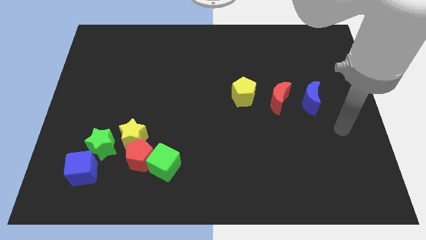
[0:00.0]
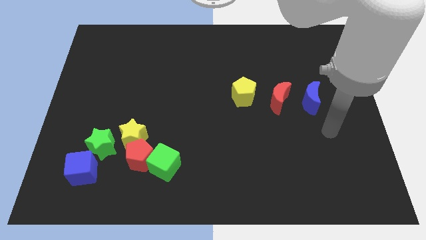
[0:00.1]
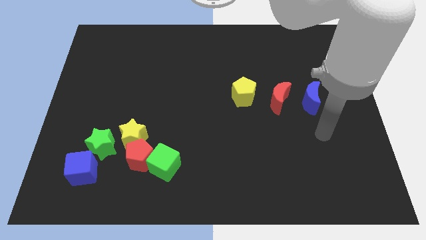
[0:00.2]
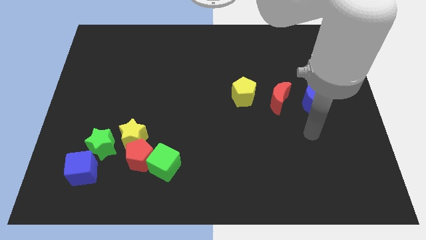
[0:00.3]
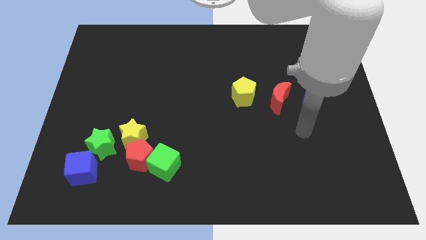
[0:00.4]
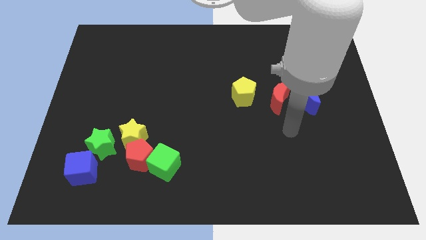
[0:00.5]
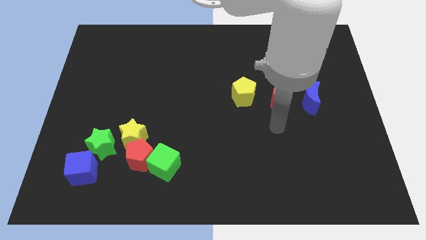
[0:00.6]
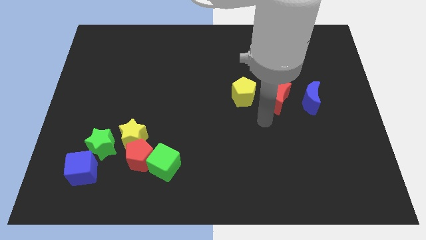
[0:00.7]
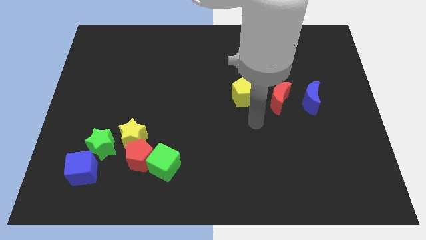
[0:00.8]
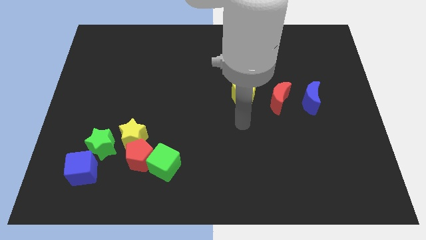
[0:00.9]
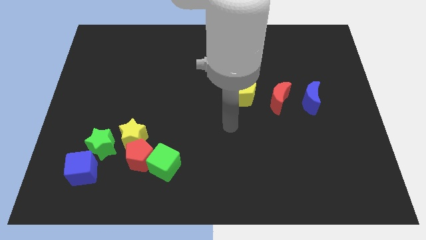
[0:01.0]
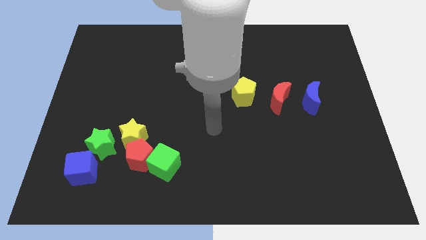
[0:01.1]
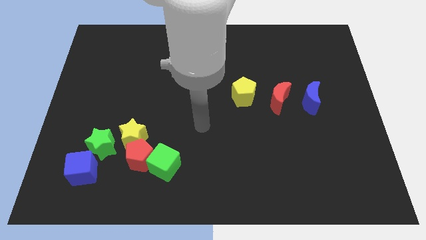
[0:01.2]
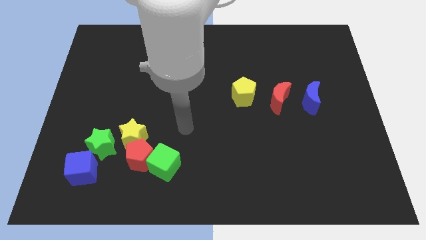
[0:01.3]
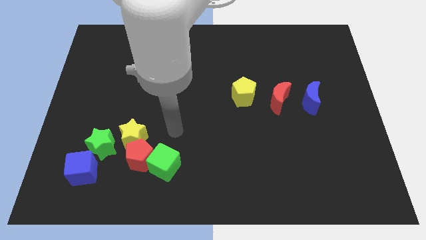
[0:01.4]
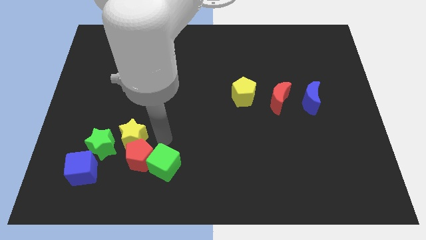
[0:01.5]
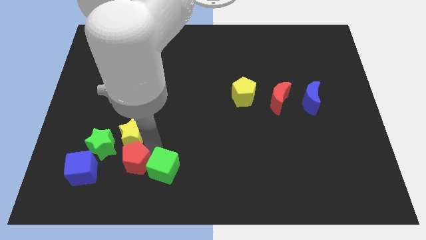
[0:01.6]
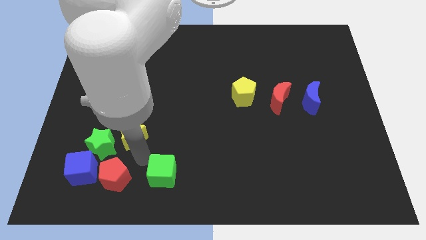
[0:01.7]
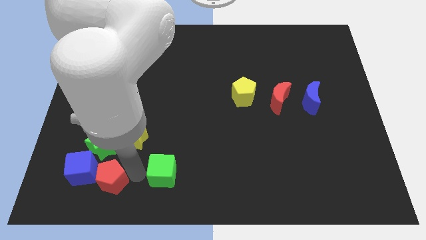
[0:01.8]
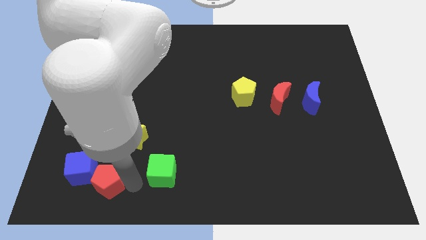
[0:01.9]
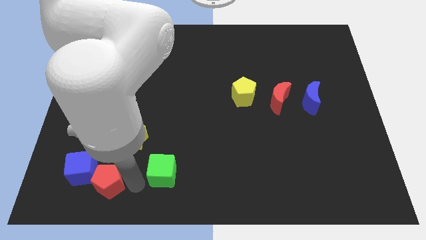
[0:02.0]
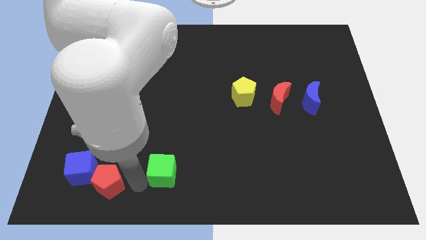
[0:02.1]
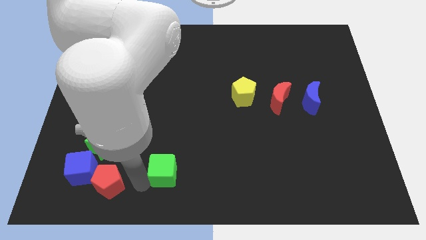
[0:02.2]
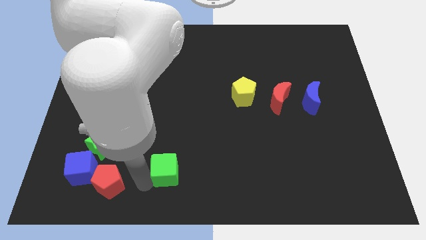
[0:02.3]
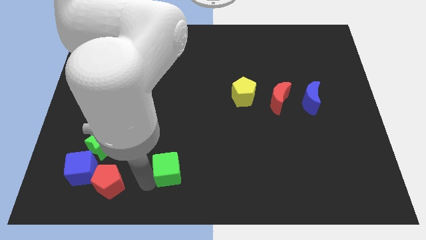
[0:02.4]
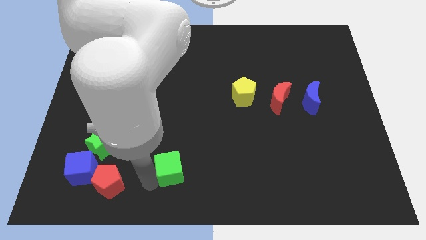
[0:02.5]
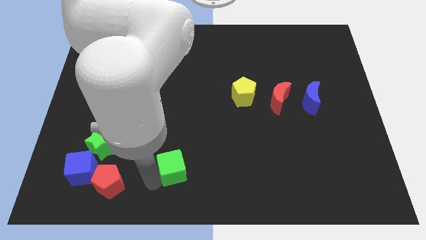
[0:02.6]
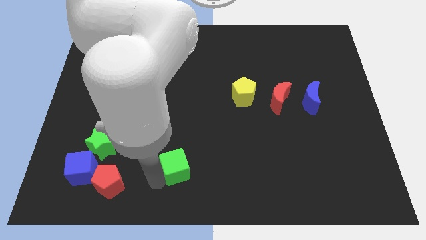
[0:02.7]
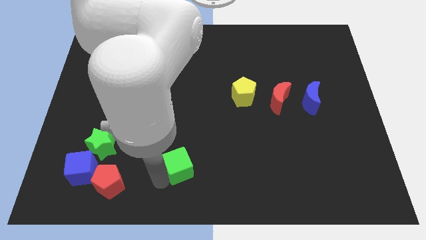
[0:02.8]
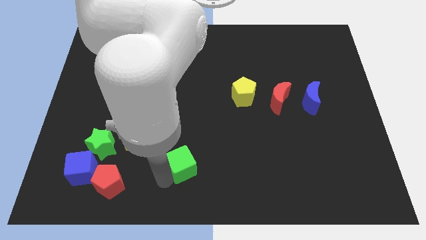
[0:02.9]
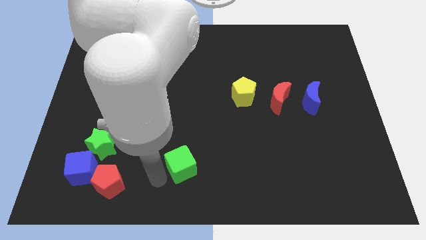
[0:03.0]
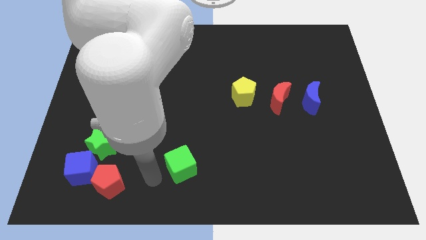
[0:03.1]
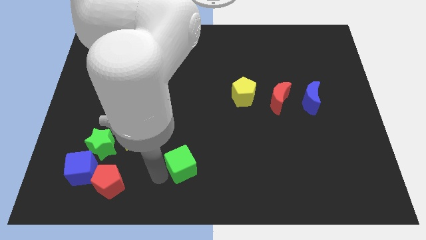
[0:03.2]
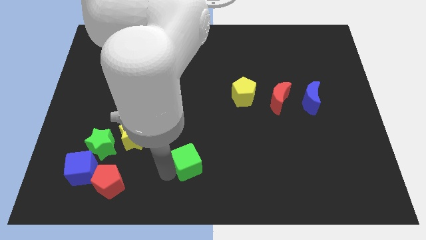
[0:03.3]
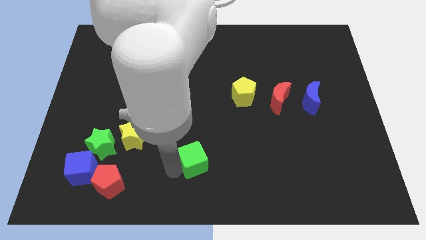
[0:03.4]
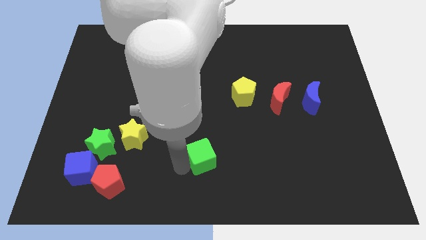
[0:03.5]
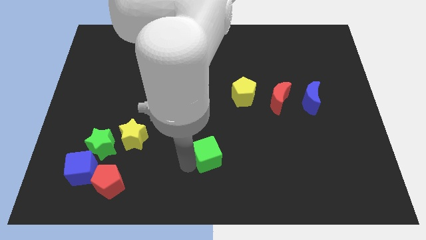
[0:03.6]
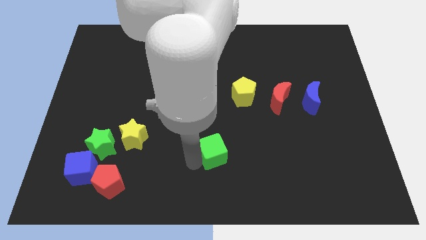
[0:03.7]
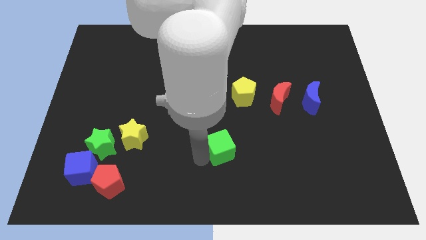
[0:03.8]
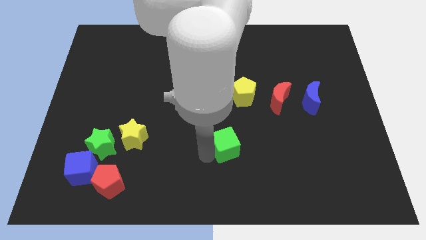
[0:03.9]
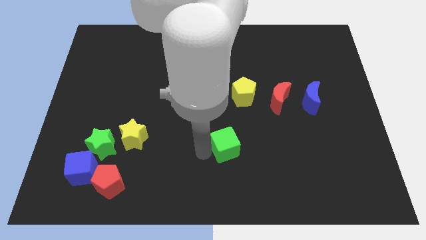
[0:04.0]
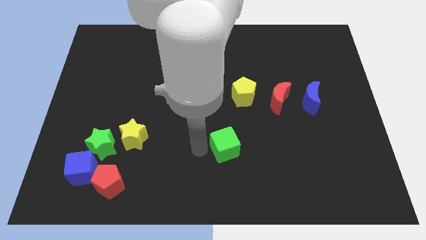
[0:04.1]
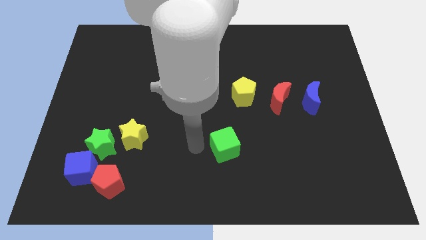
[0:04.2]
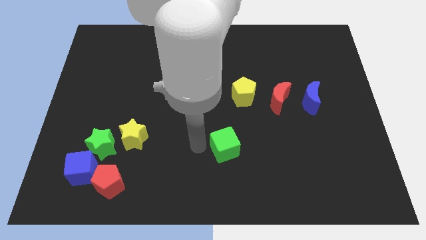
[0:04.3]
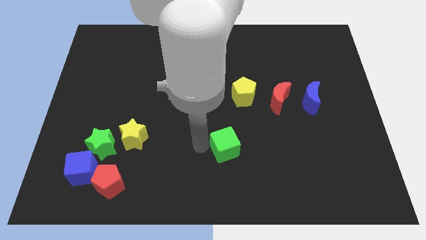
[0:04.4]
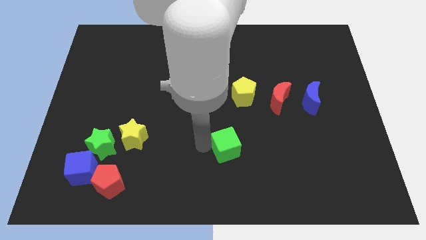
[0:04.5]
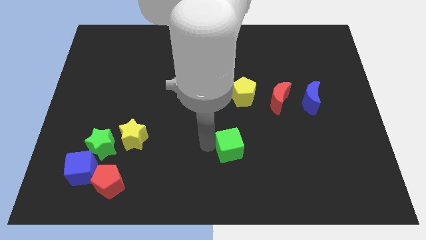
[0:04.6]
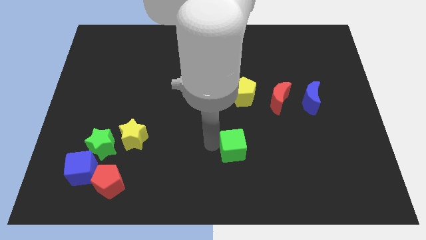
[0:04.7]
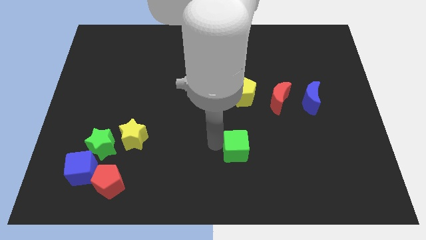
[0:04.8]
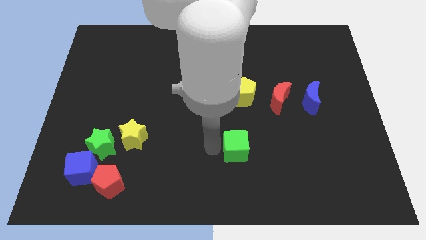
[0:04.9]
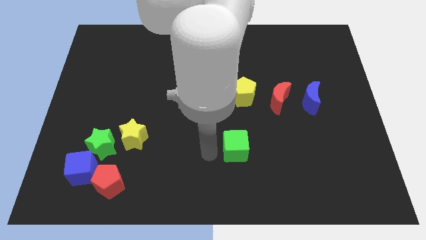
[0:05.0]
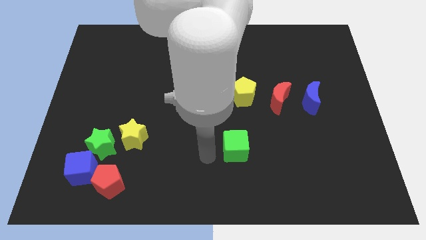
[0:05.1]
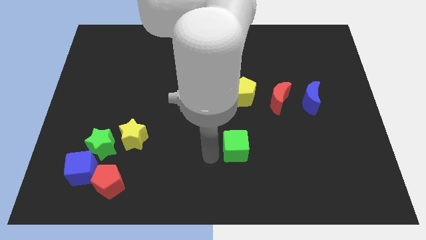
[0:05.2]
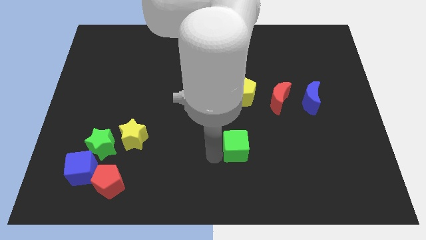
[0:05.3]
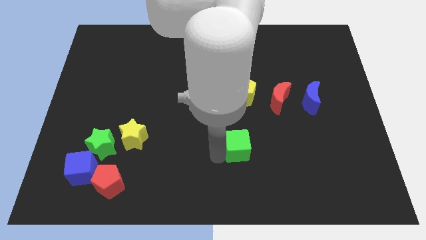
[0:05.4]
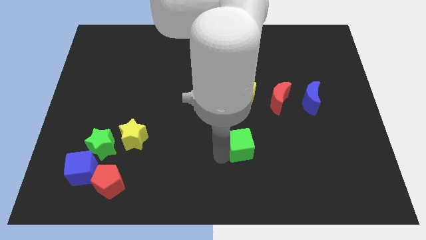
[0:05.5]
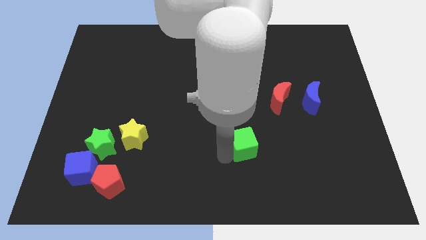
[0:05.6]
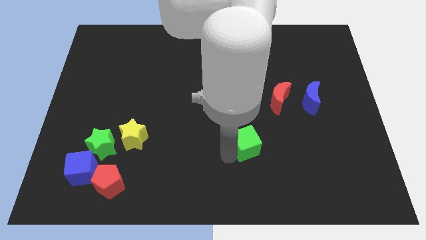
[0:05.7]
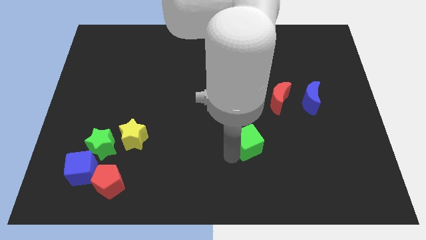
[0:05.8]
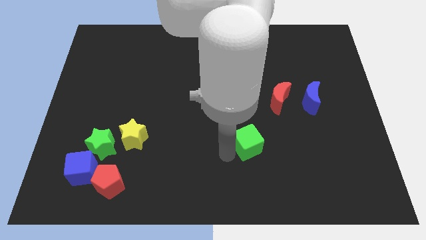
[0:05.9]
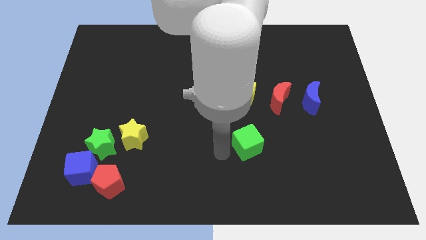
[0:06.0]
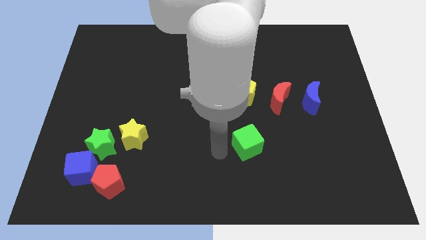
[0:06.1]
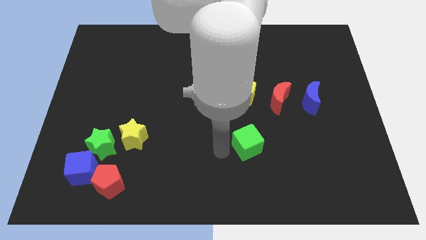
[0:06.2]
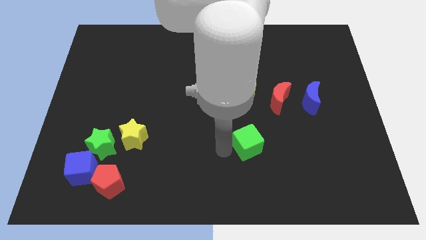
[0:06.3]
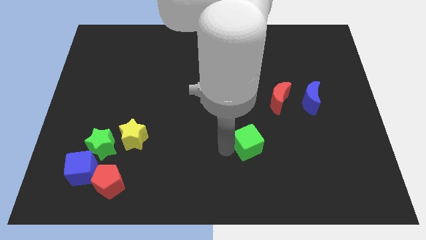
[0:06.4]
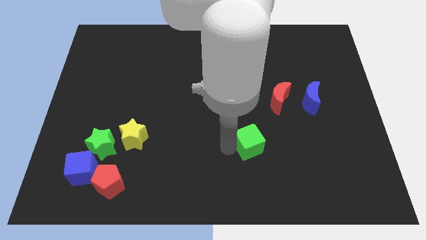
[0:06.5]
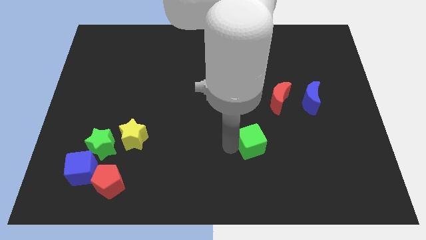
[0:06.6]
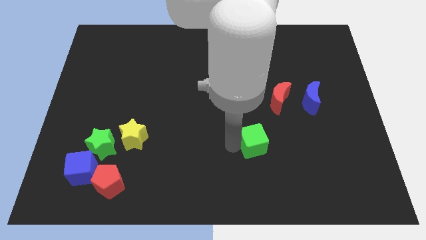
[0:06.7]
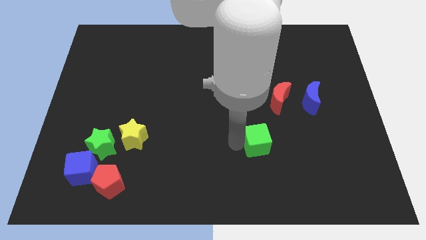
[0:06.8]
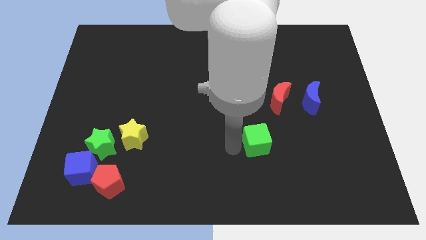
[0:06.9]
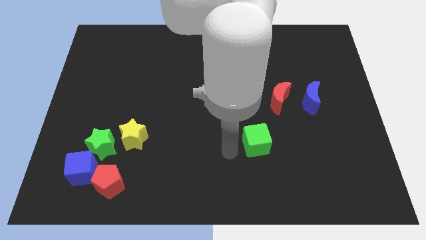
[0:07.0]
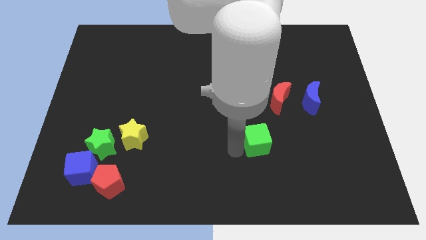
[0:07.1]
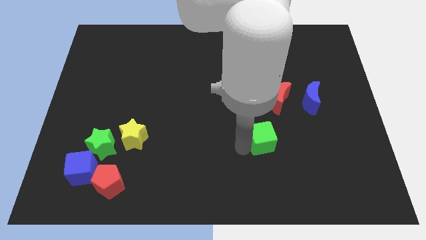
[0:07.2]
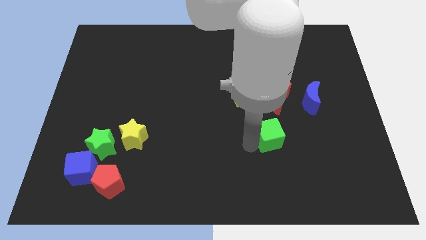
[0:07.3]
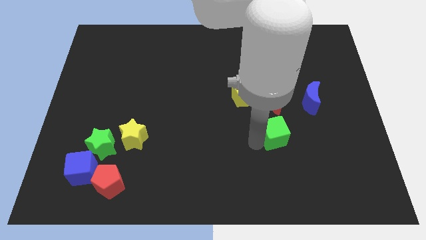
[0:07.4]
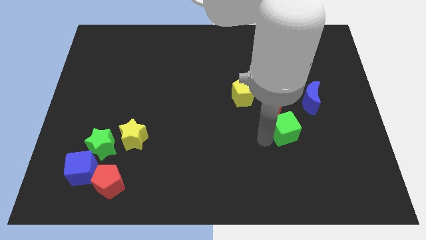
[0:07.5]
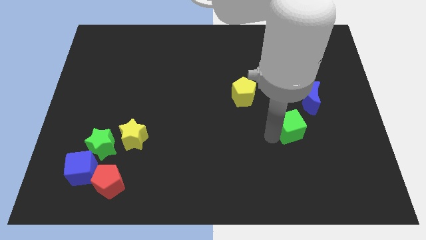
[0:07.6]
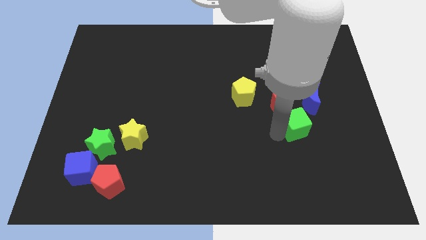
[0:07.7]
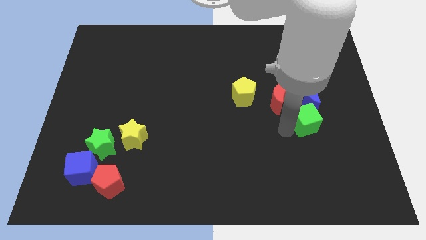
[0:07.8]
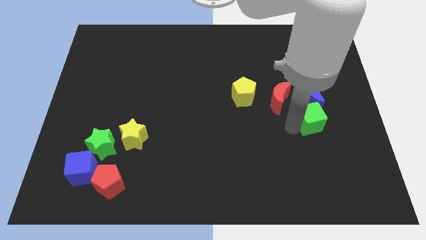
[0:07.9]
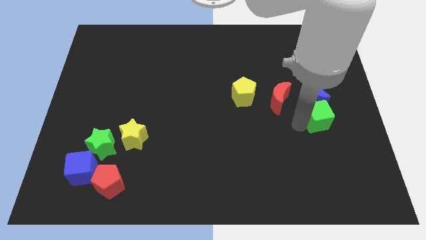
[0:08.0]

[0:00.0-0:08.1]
move the green cube to the bottom right of the blue moon
